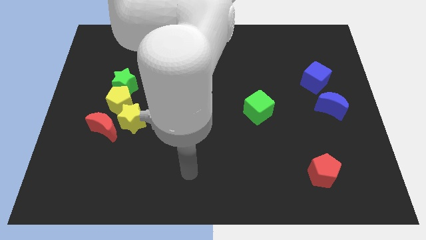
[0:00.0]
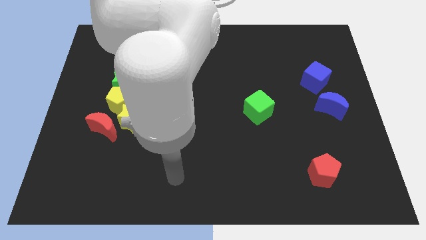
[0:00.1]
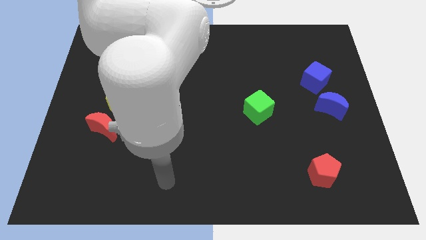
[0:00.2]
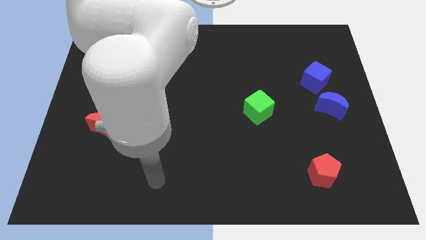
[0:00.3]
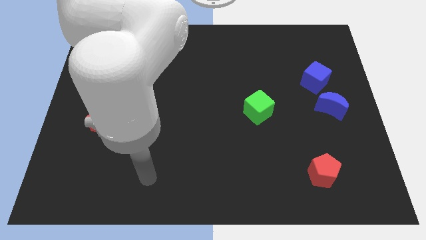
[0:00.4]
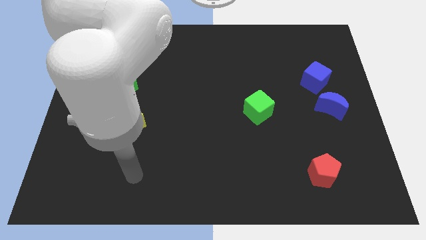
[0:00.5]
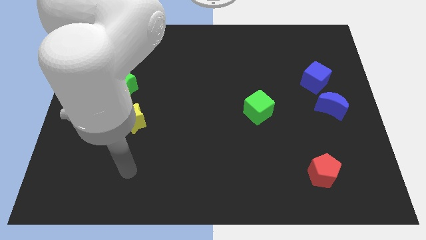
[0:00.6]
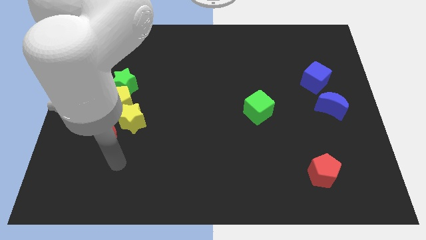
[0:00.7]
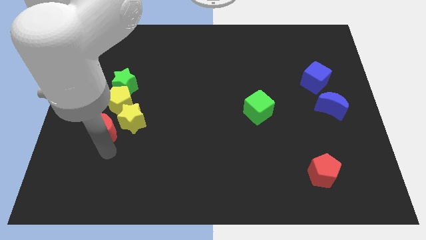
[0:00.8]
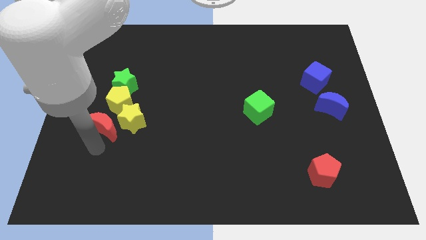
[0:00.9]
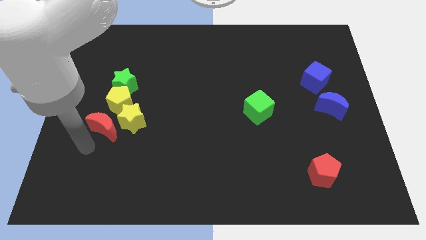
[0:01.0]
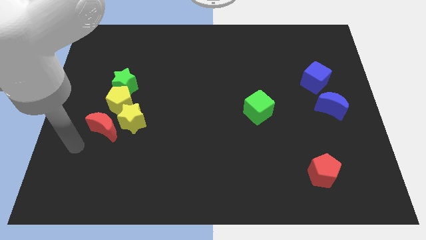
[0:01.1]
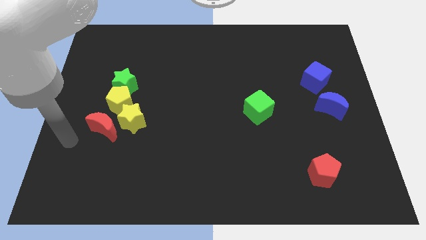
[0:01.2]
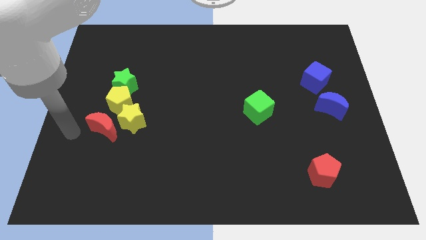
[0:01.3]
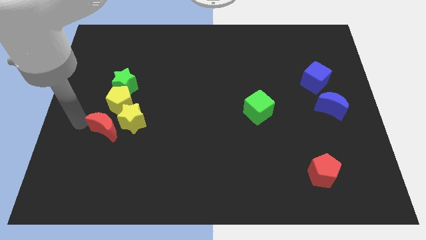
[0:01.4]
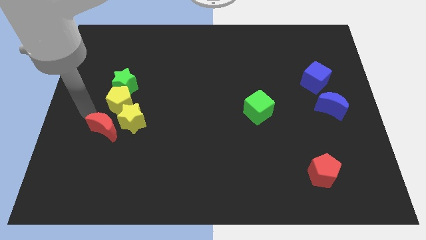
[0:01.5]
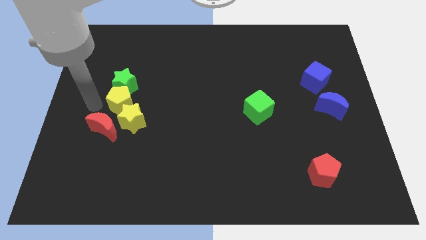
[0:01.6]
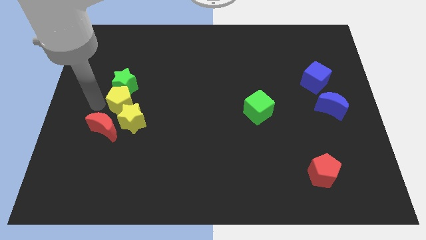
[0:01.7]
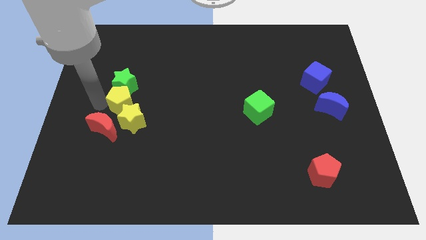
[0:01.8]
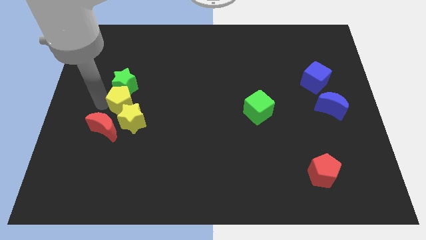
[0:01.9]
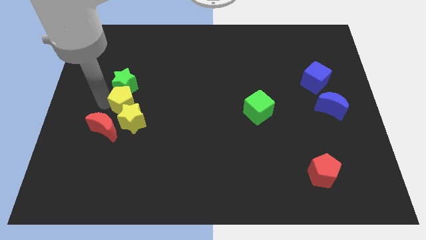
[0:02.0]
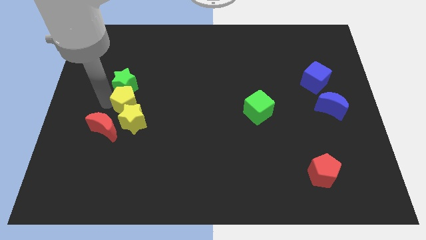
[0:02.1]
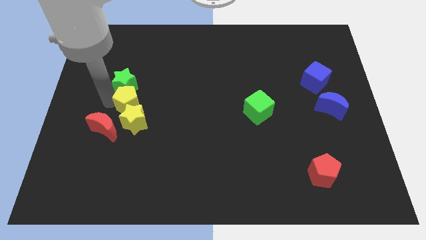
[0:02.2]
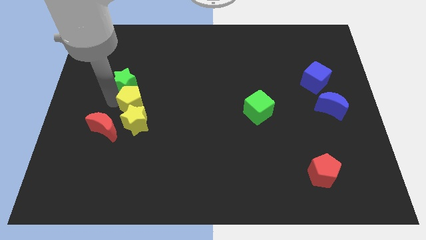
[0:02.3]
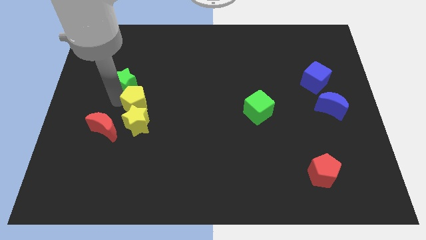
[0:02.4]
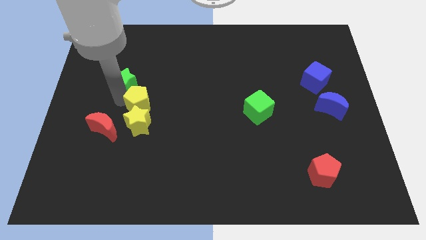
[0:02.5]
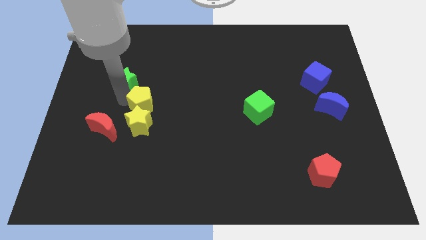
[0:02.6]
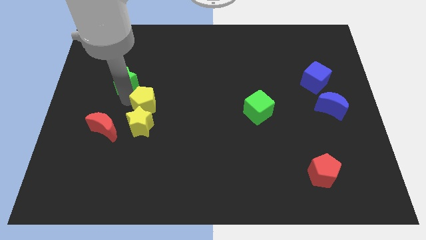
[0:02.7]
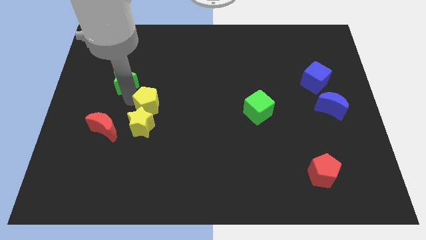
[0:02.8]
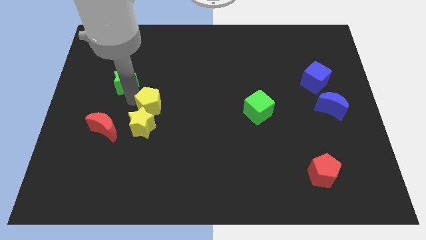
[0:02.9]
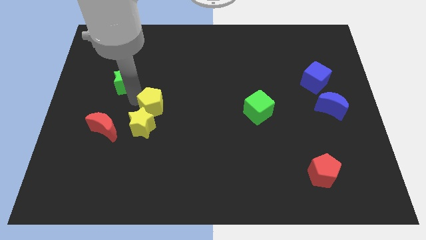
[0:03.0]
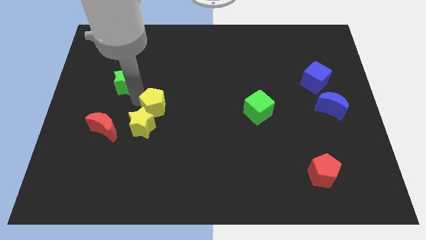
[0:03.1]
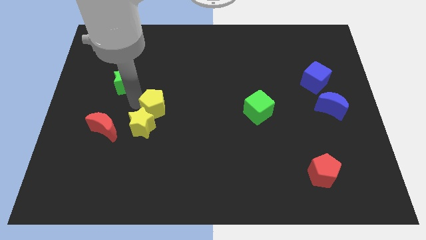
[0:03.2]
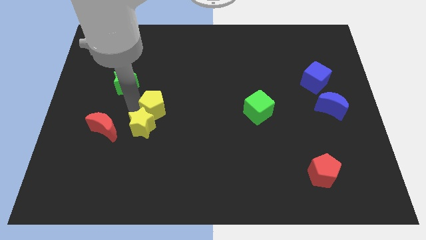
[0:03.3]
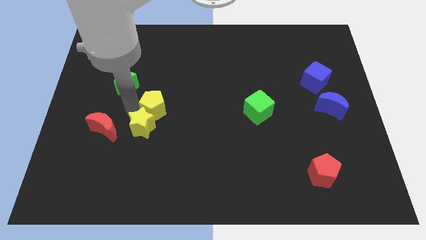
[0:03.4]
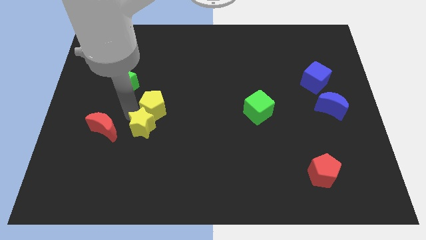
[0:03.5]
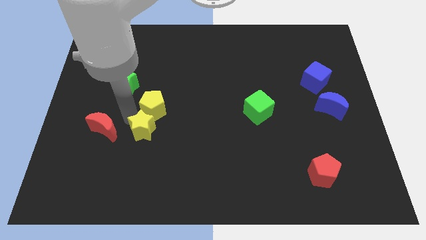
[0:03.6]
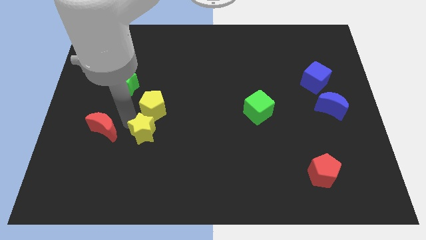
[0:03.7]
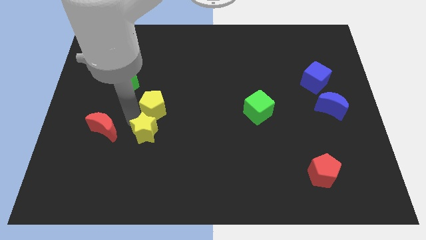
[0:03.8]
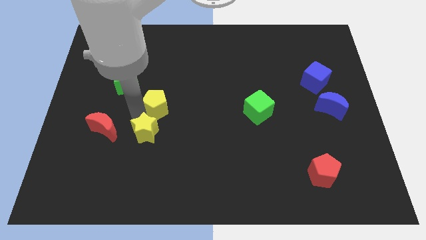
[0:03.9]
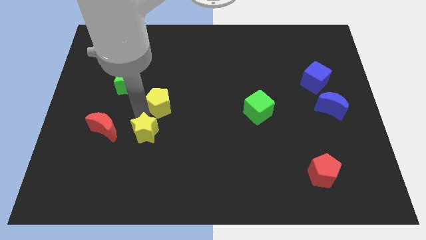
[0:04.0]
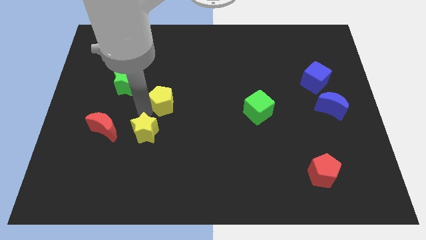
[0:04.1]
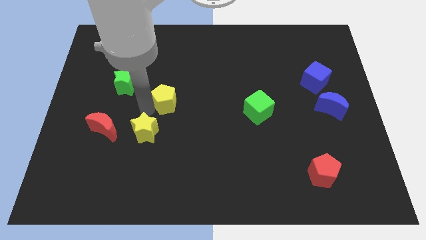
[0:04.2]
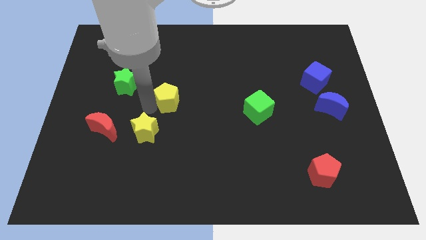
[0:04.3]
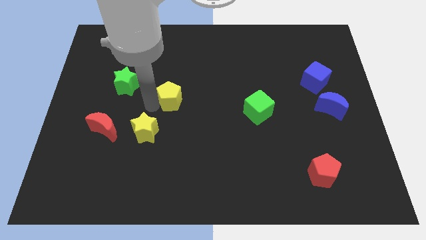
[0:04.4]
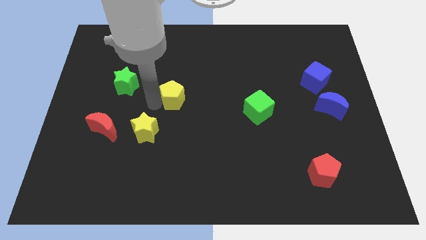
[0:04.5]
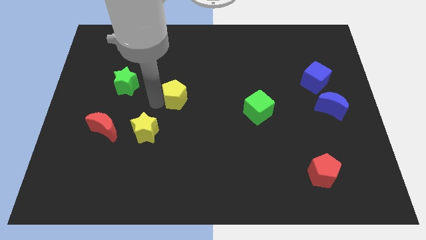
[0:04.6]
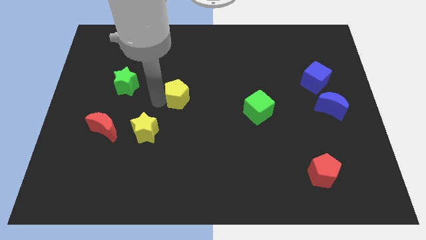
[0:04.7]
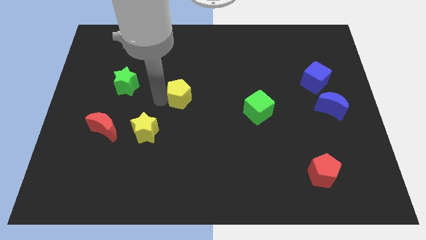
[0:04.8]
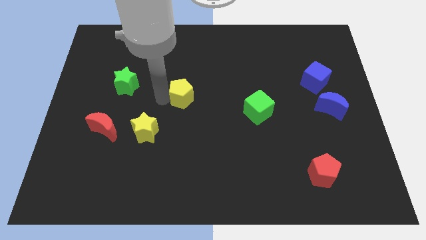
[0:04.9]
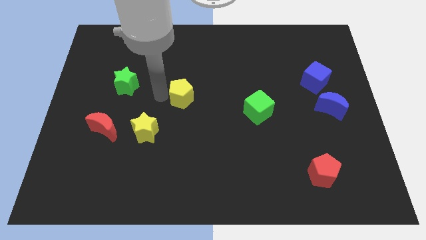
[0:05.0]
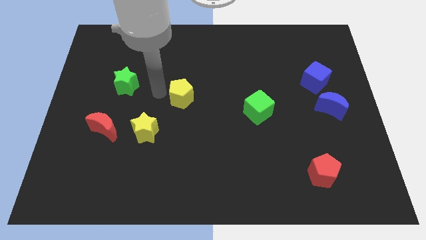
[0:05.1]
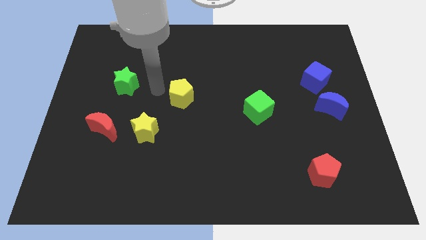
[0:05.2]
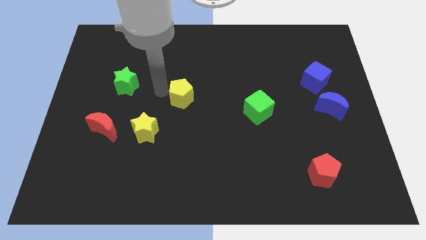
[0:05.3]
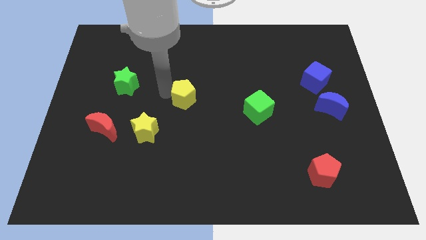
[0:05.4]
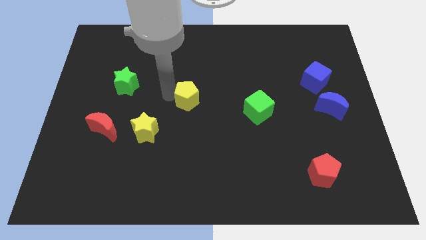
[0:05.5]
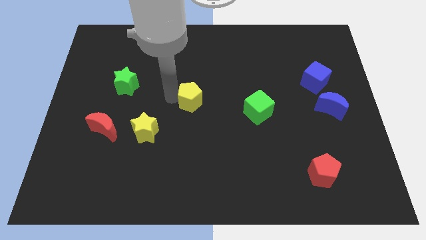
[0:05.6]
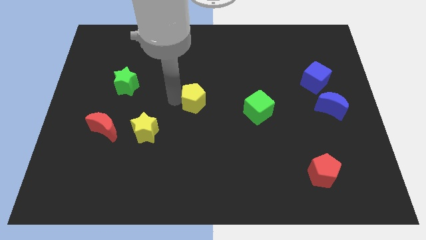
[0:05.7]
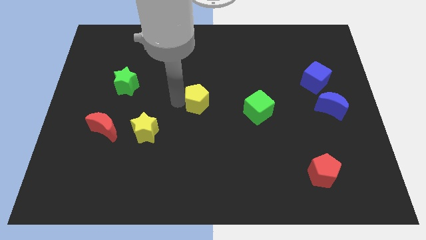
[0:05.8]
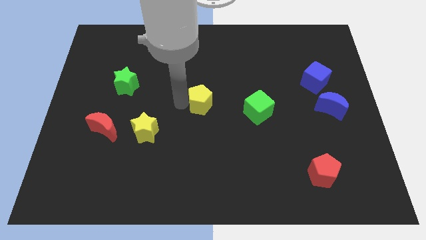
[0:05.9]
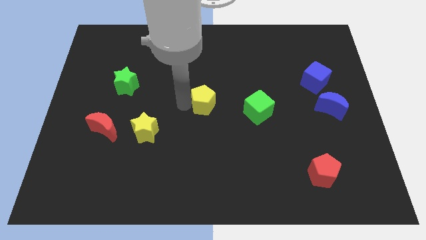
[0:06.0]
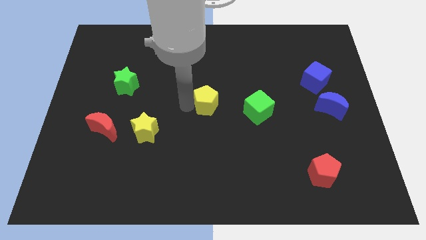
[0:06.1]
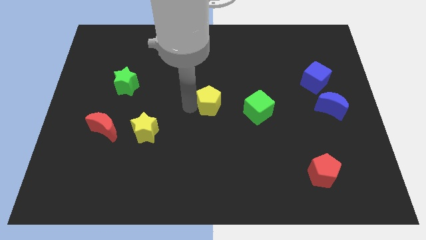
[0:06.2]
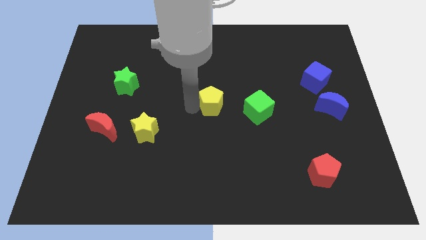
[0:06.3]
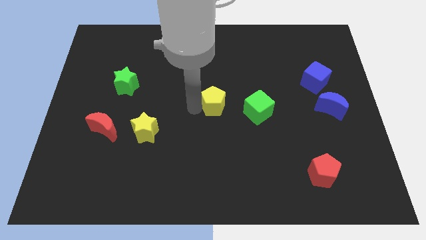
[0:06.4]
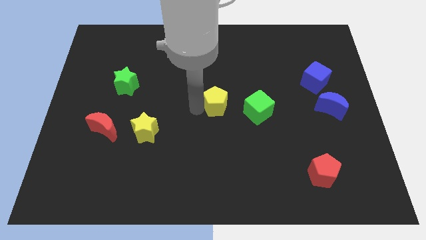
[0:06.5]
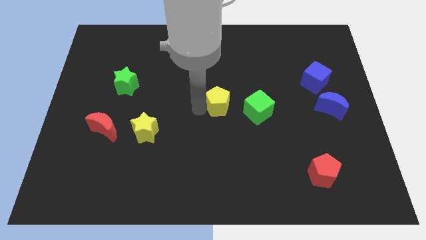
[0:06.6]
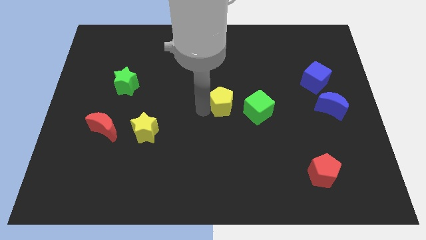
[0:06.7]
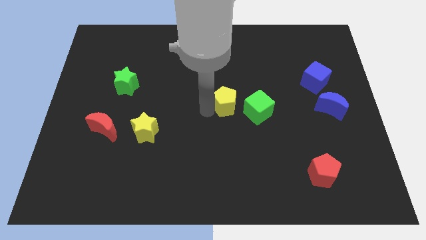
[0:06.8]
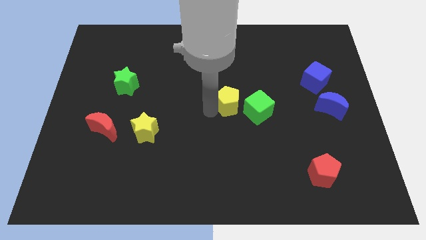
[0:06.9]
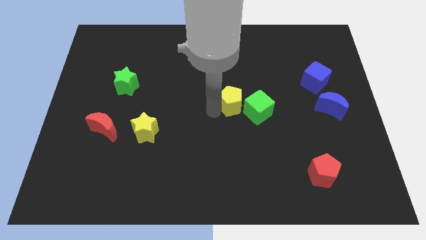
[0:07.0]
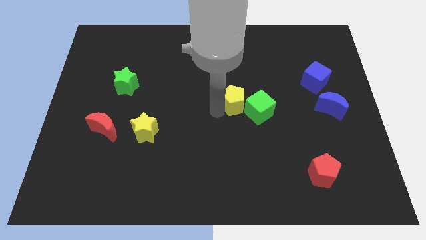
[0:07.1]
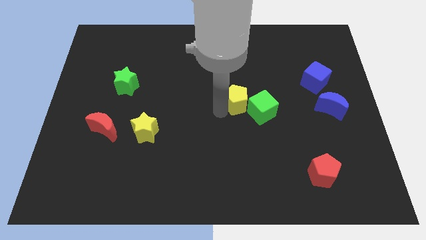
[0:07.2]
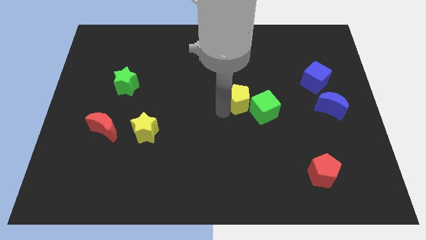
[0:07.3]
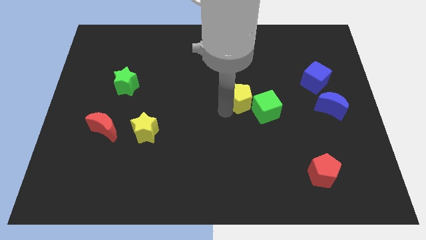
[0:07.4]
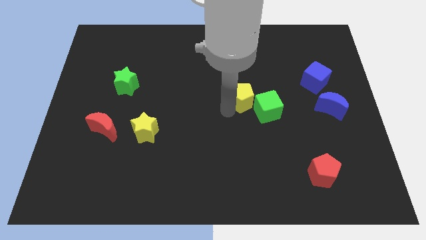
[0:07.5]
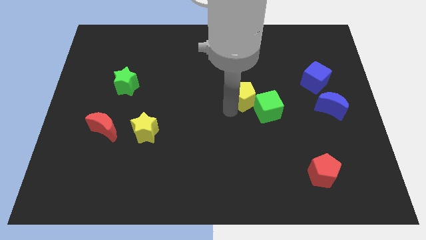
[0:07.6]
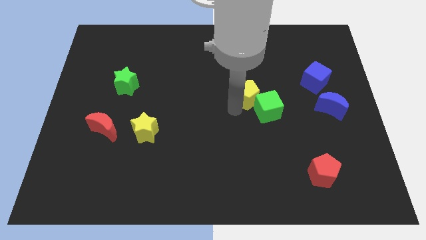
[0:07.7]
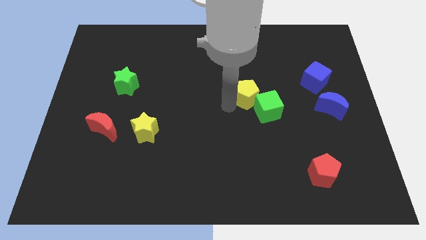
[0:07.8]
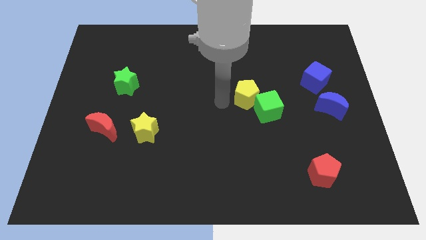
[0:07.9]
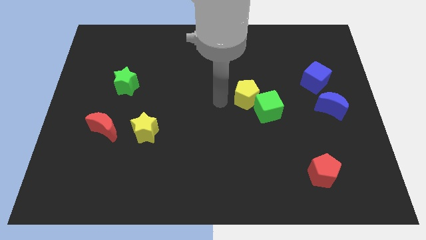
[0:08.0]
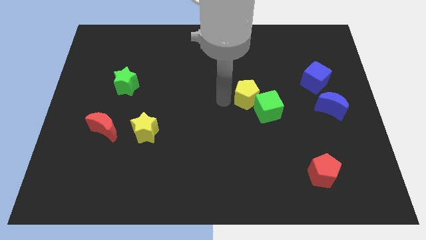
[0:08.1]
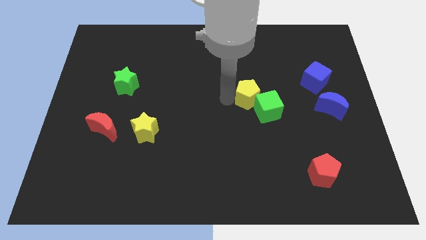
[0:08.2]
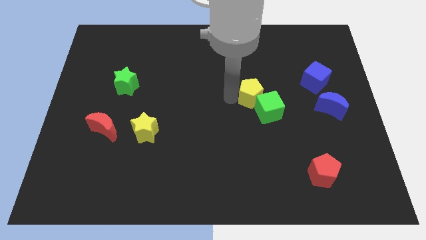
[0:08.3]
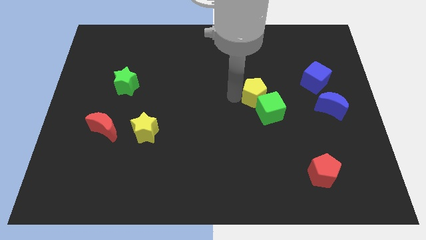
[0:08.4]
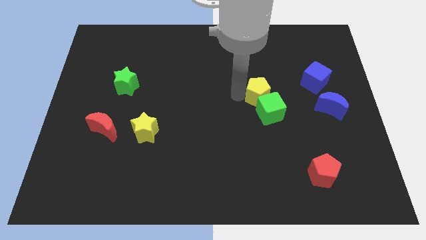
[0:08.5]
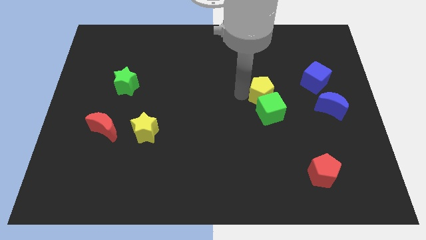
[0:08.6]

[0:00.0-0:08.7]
move the yellow pentagon to the top right of the green cube
